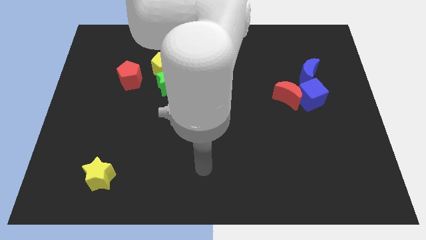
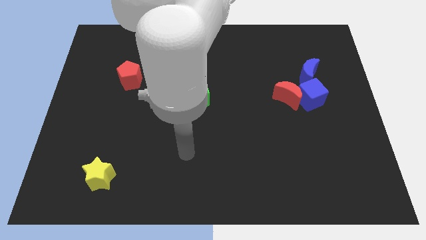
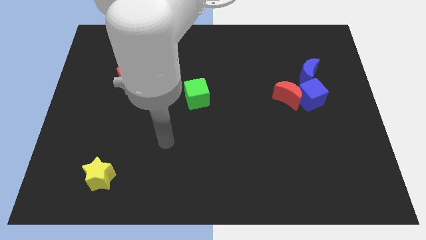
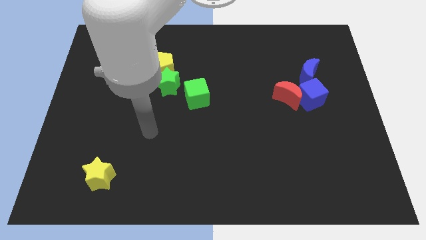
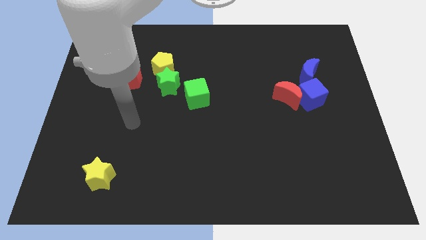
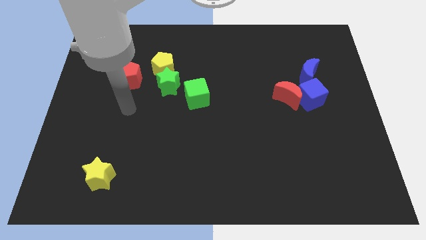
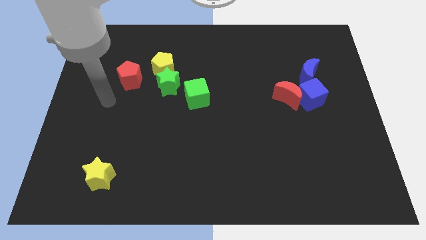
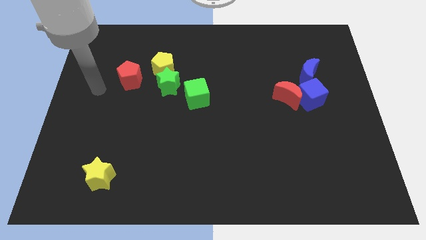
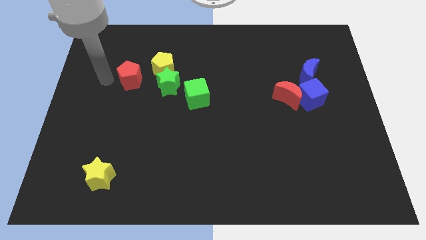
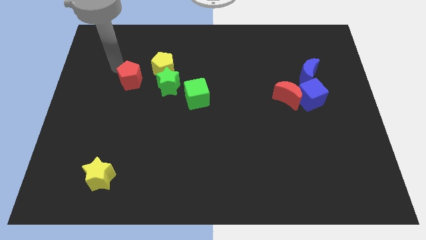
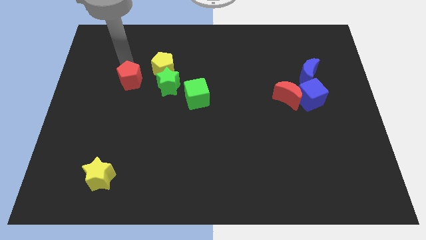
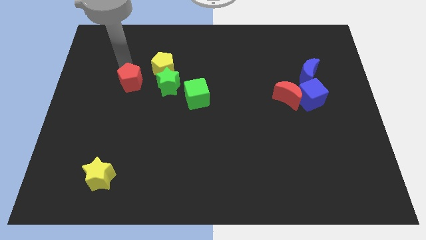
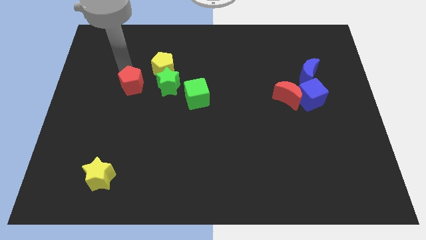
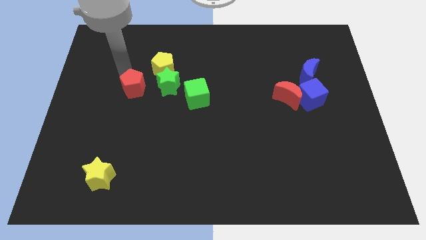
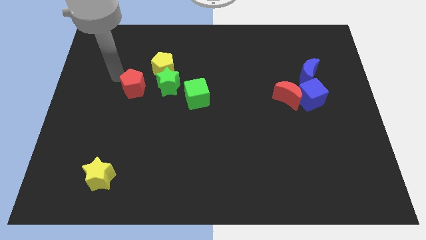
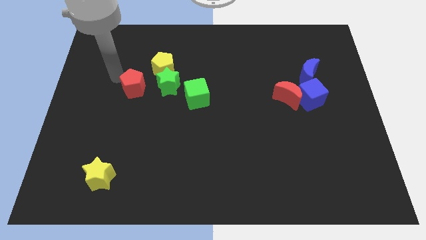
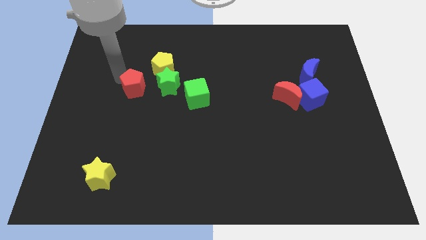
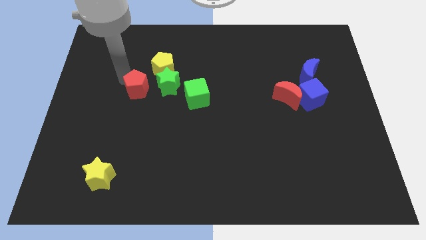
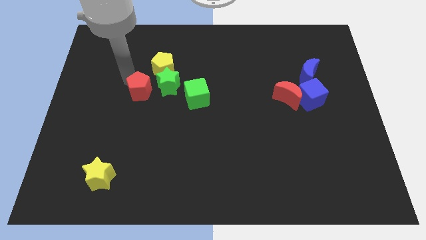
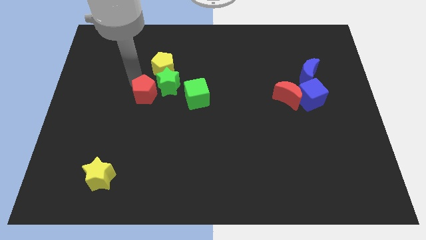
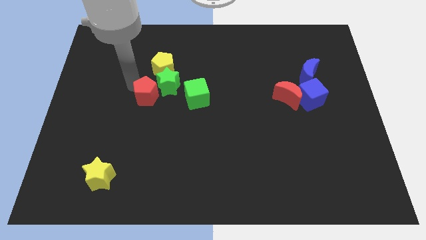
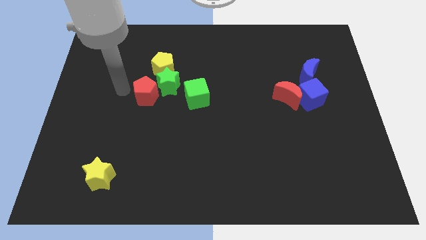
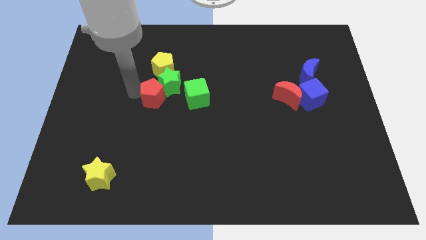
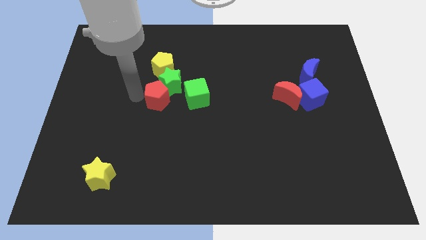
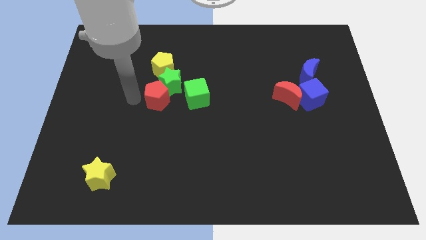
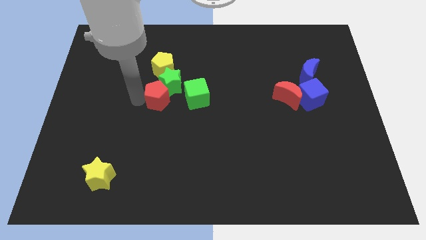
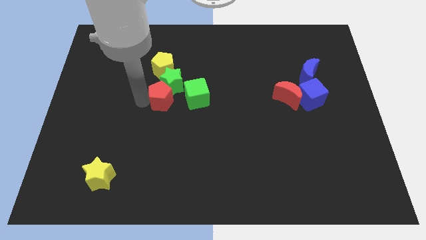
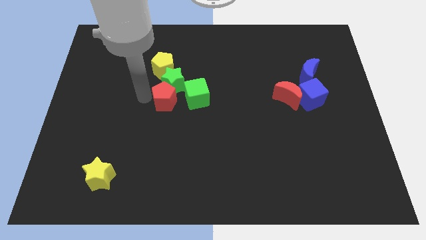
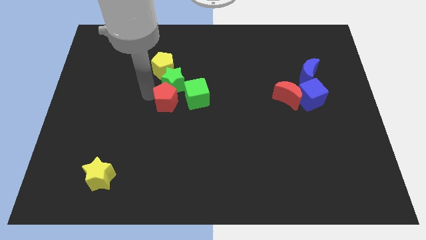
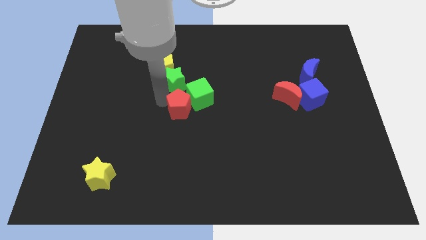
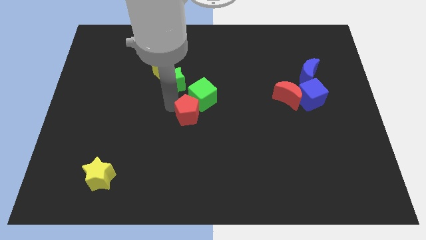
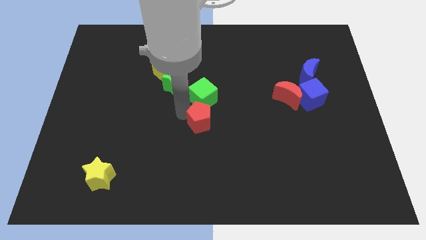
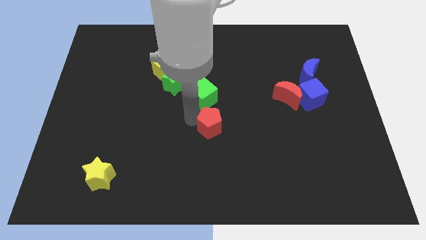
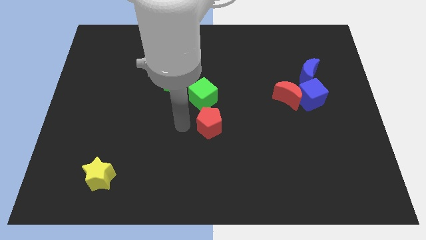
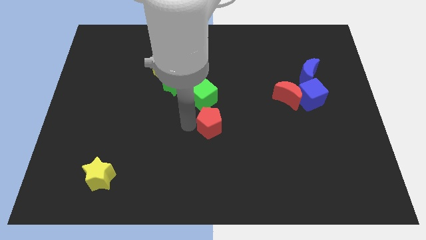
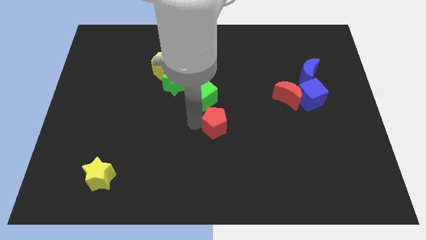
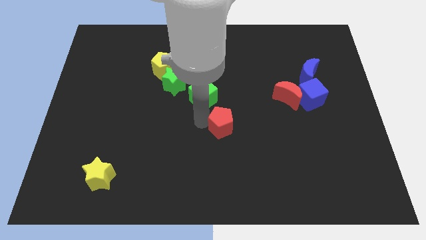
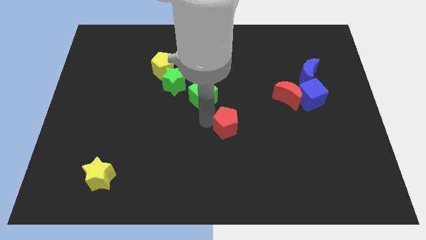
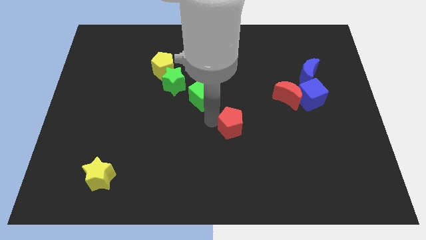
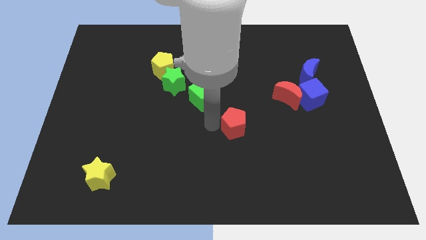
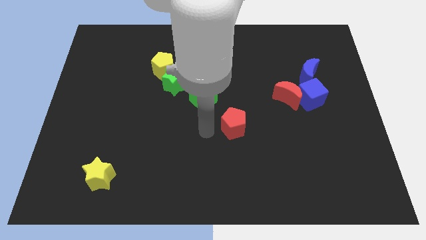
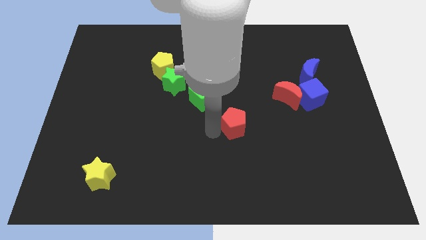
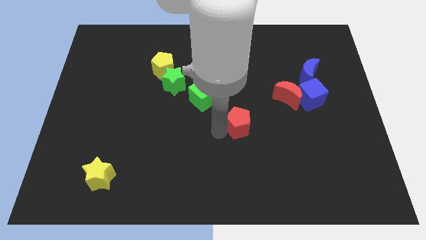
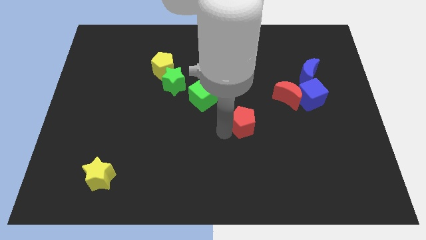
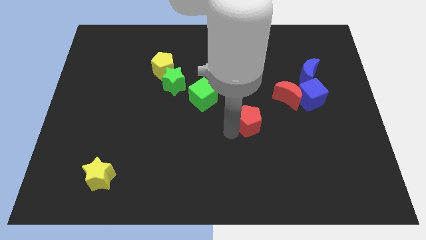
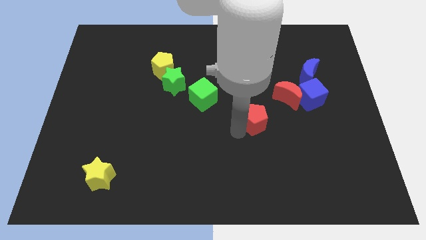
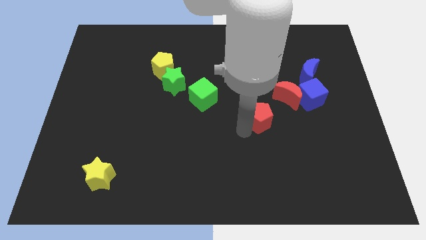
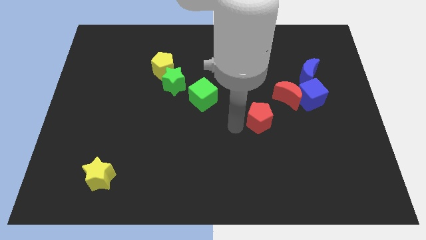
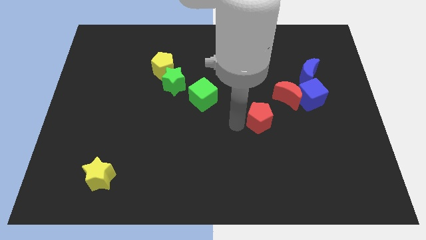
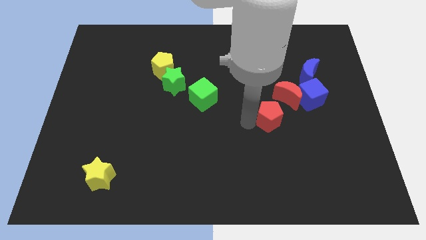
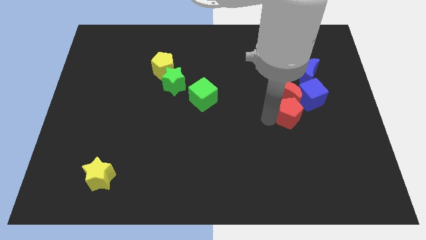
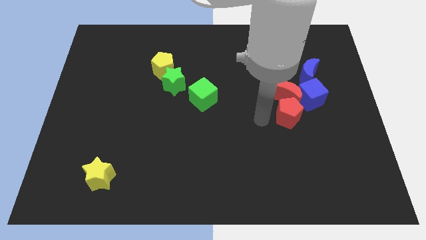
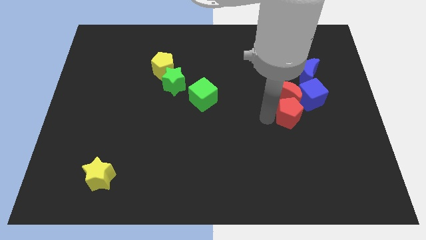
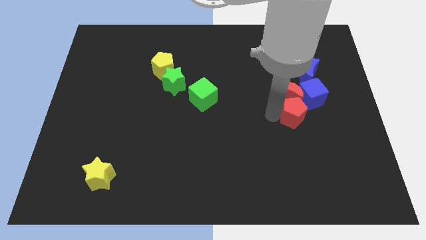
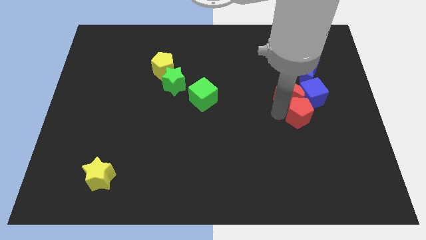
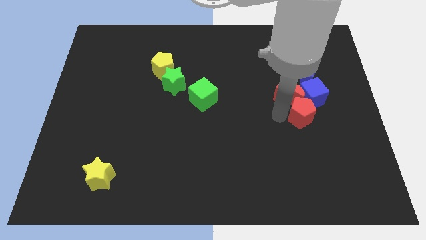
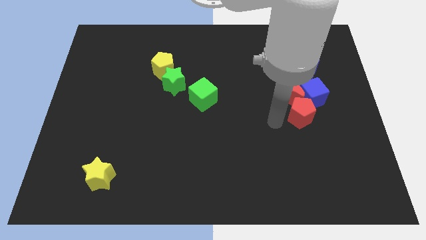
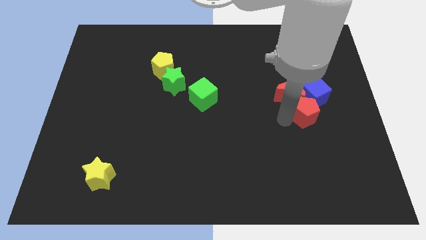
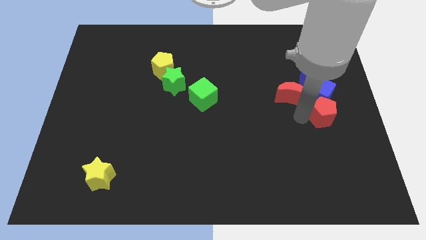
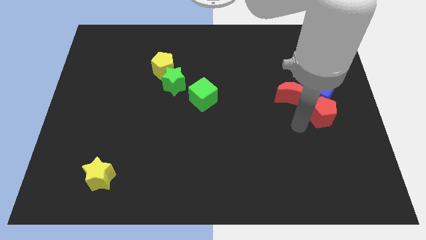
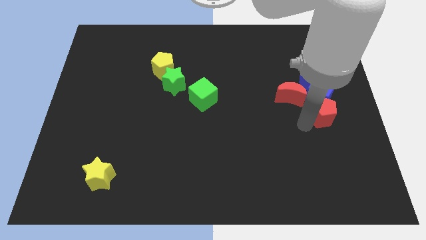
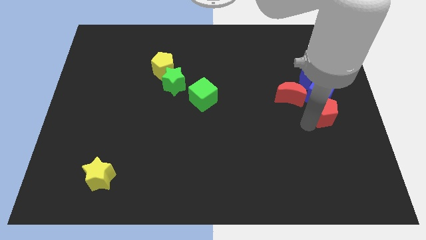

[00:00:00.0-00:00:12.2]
push the red pentagon to the center right
